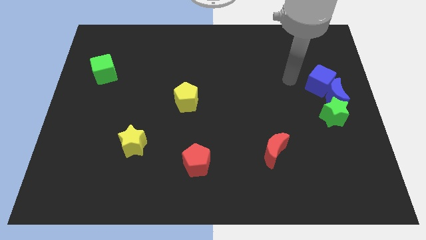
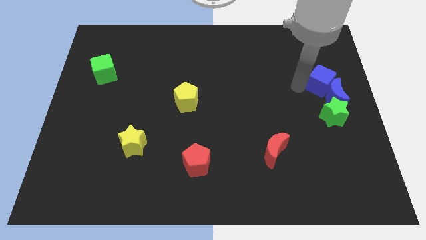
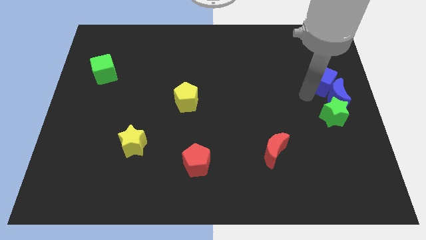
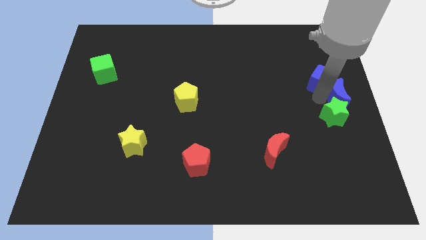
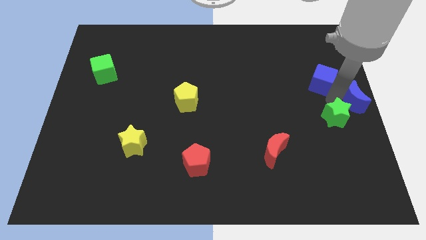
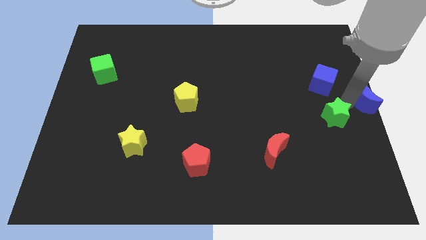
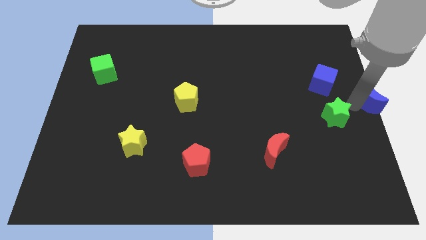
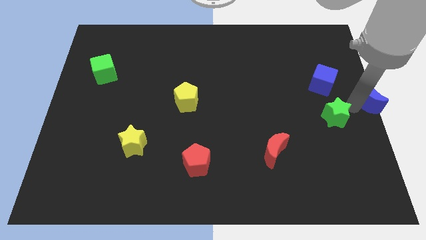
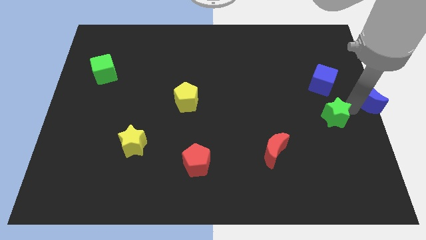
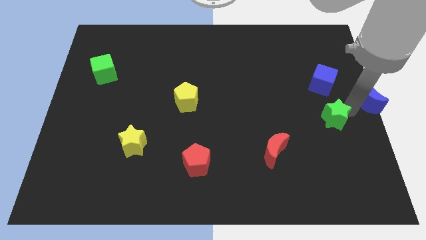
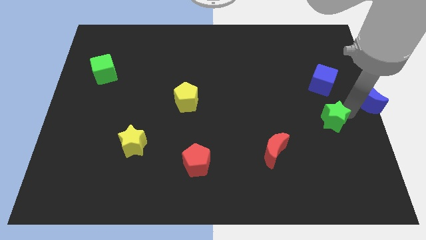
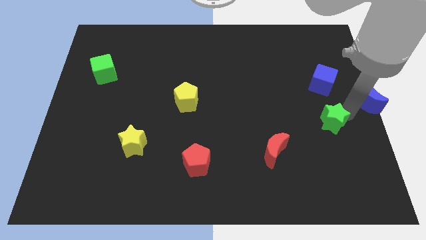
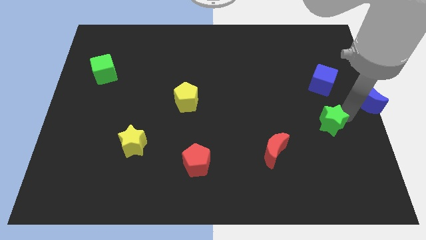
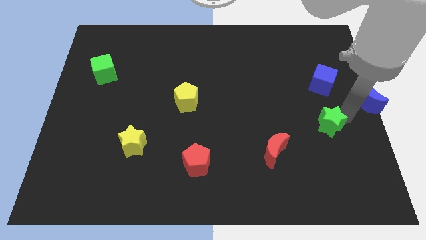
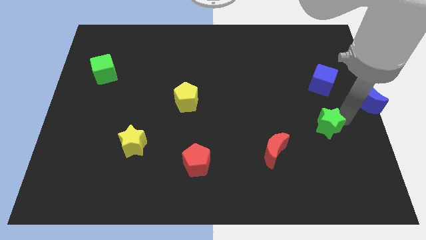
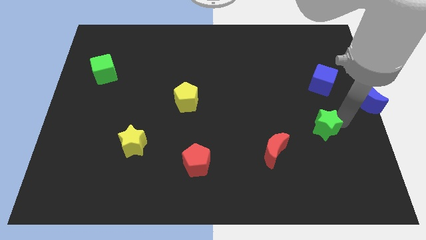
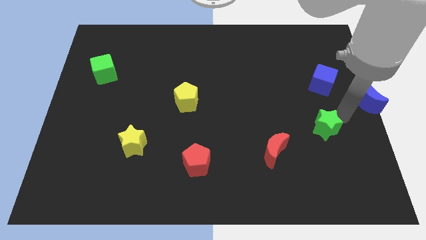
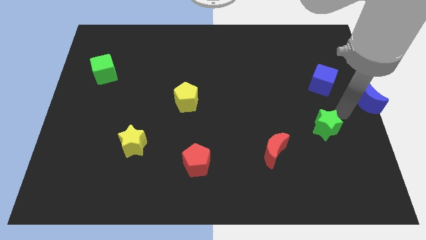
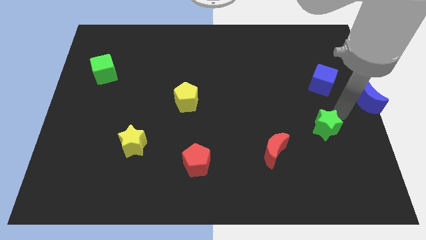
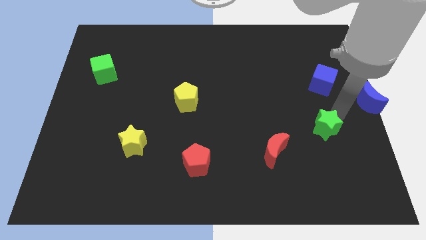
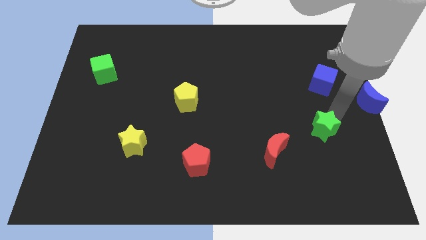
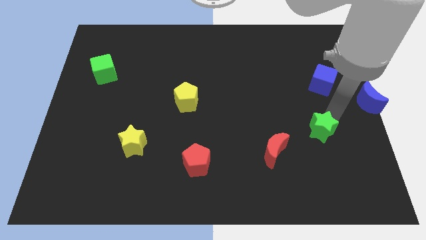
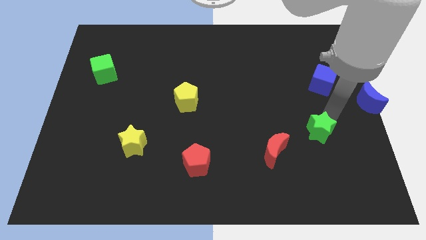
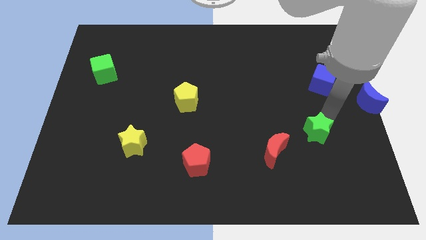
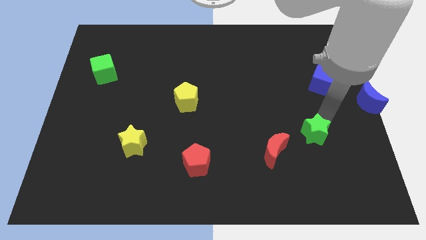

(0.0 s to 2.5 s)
move the green star somewhat downwards and to the left diagonally

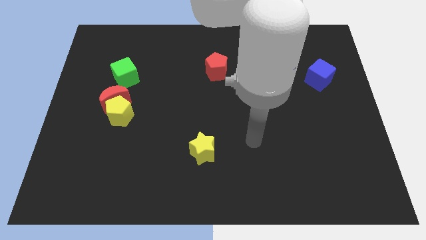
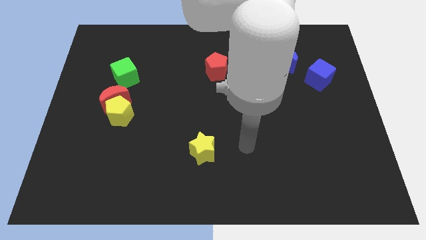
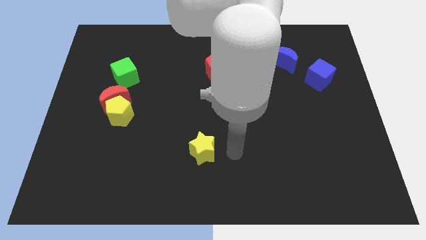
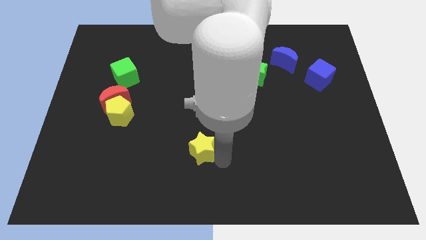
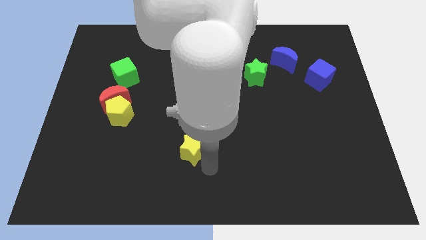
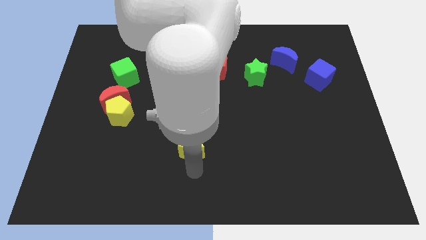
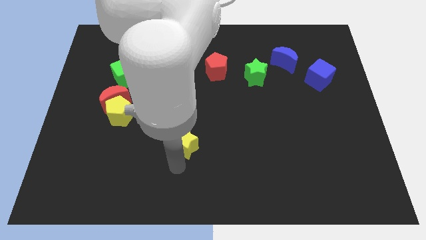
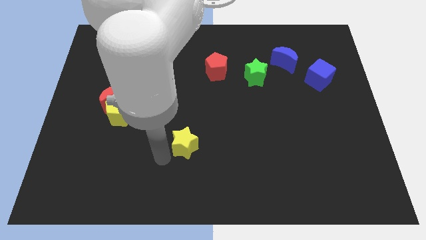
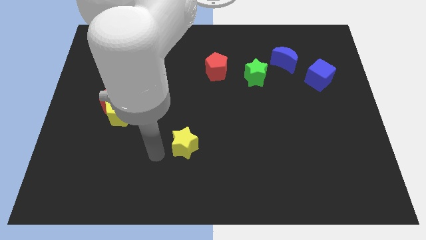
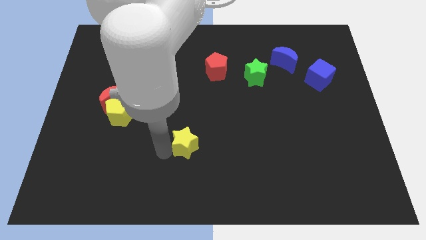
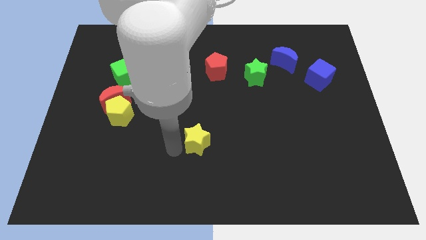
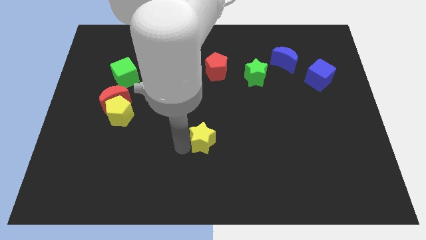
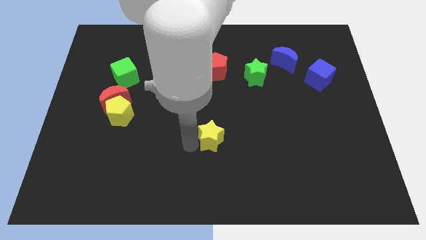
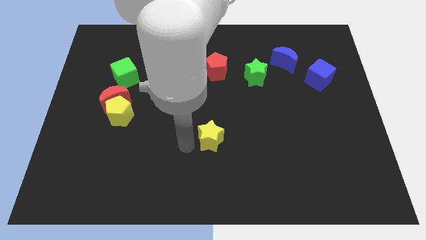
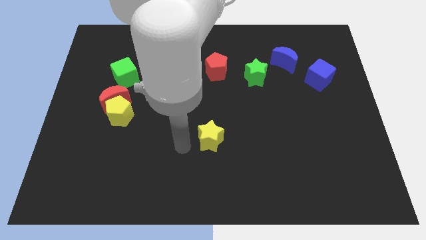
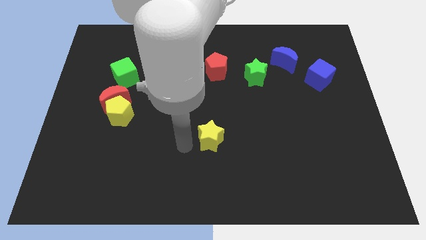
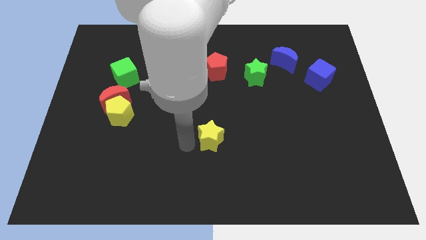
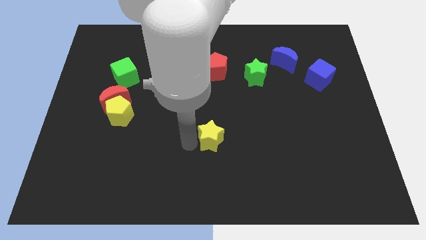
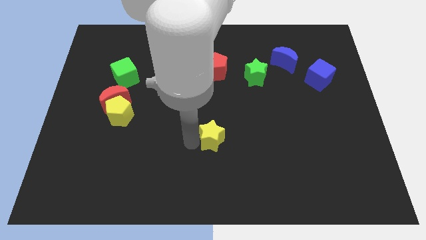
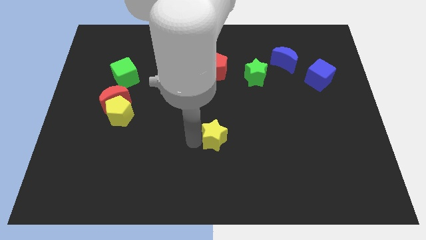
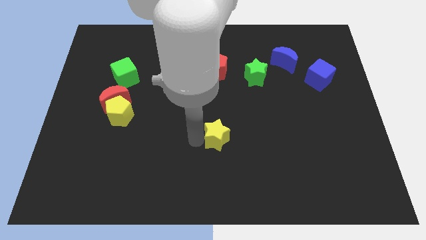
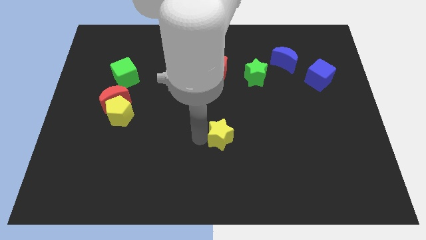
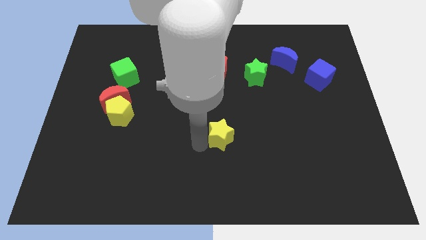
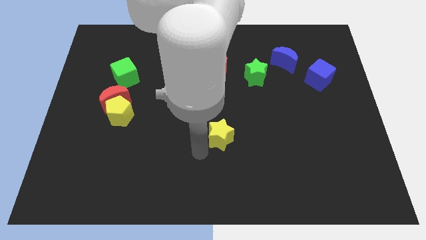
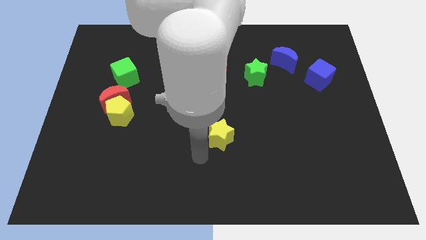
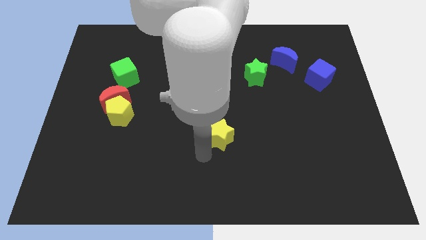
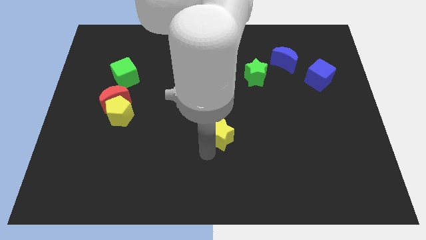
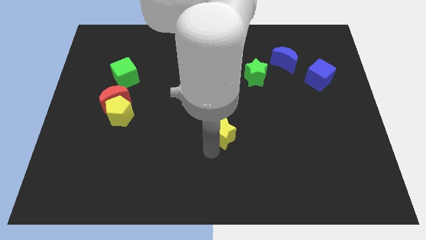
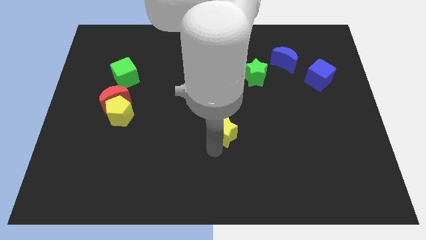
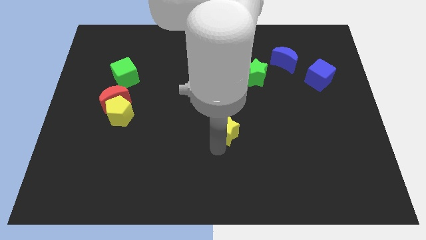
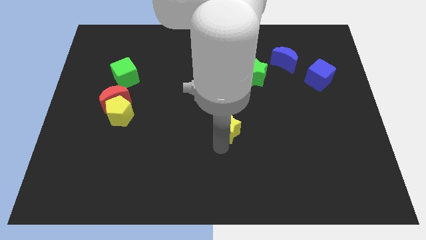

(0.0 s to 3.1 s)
slightly push the yellow star up and then to the right

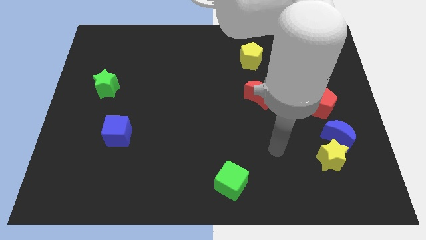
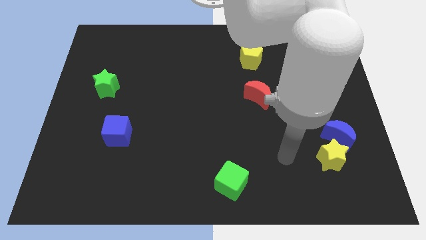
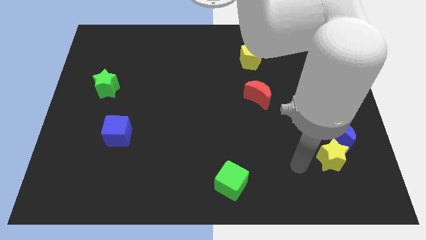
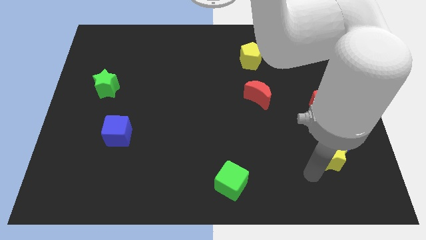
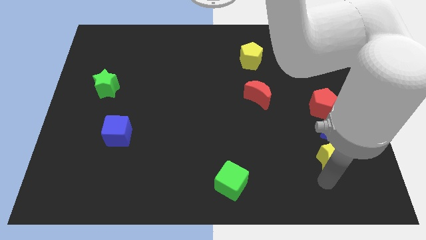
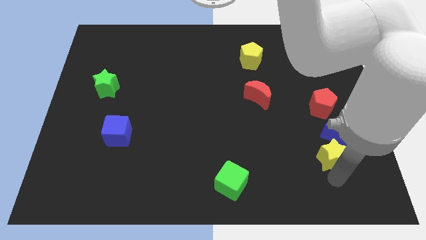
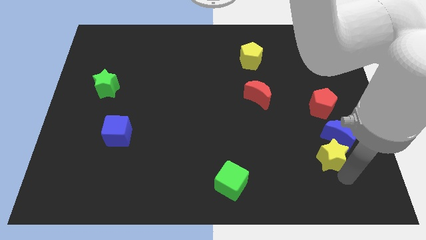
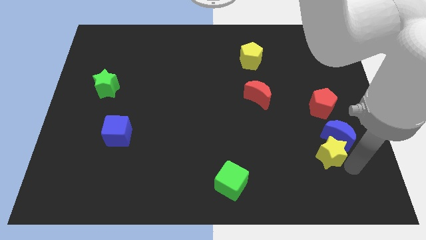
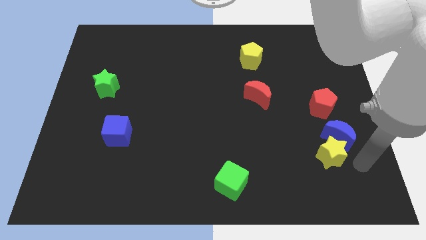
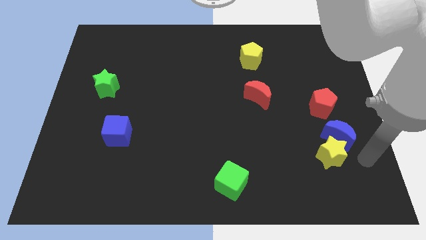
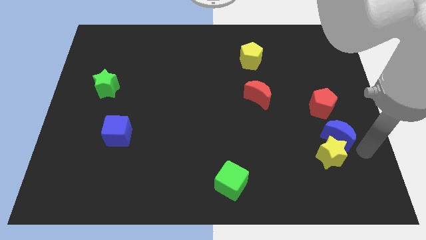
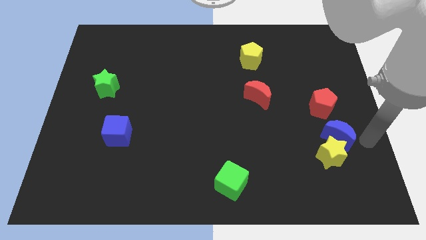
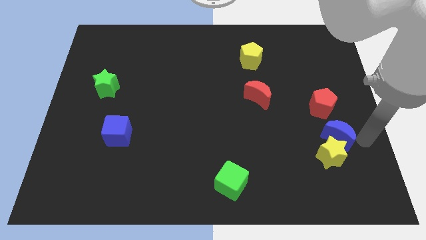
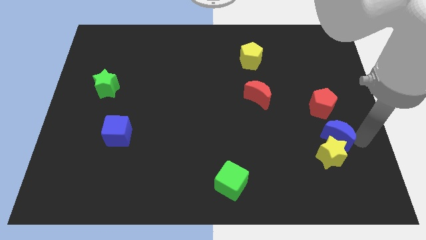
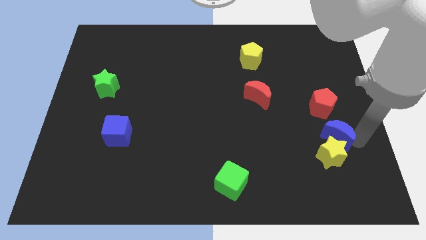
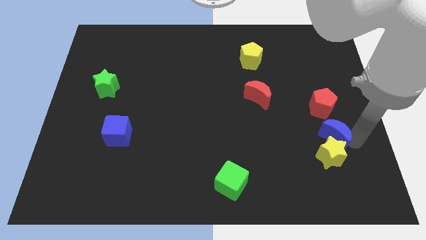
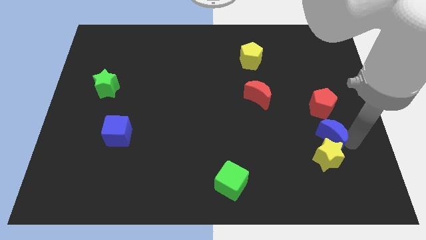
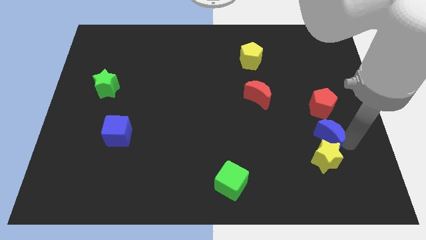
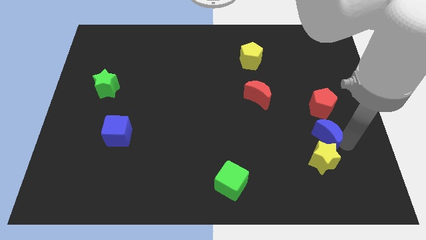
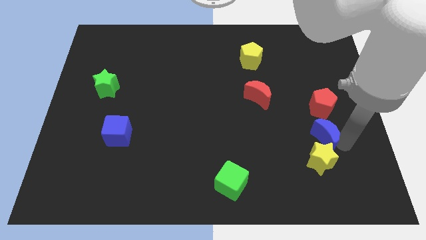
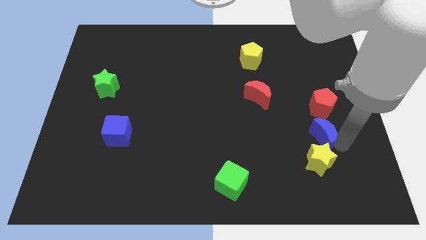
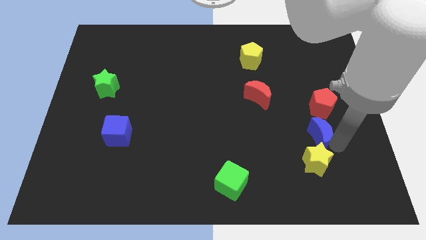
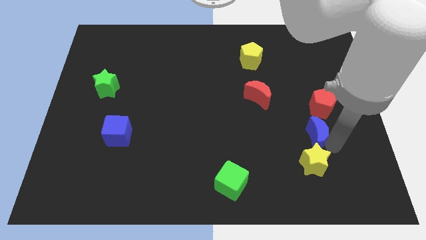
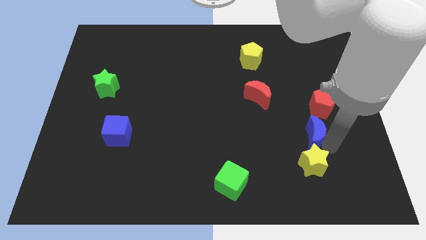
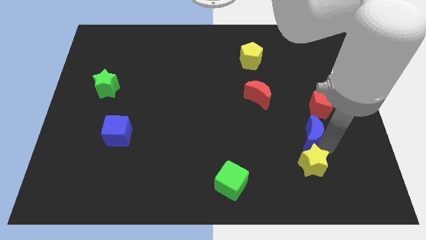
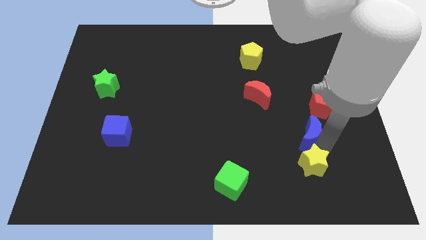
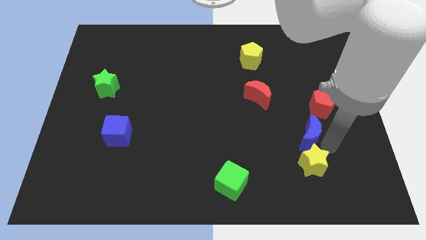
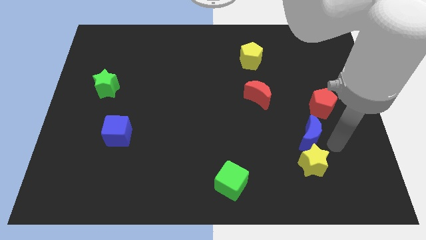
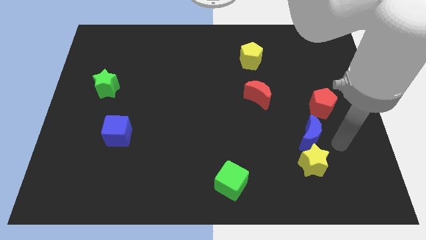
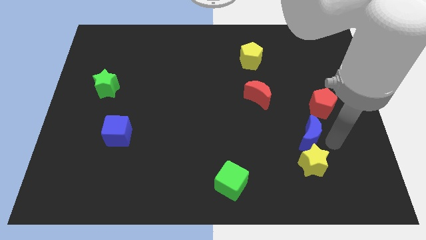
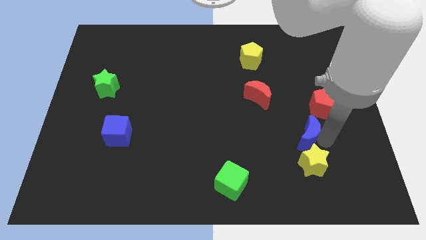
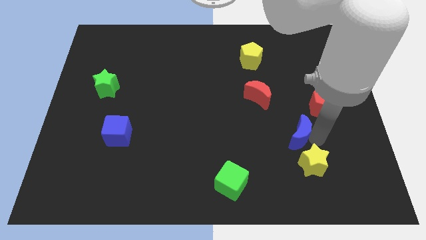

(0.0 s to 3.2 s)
slightly push the blue moon left
